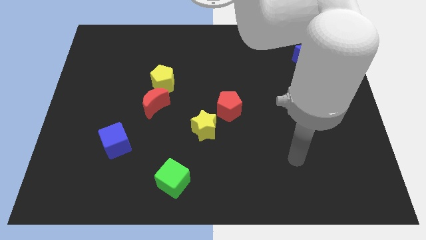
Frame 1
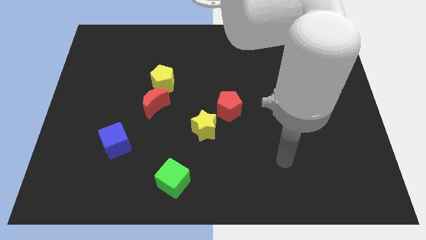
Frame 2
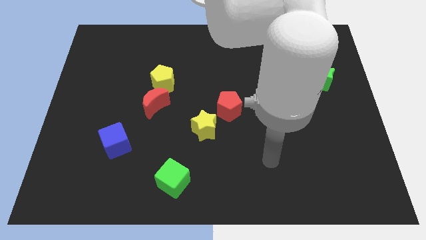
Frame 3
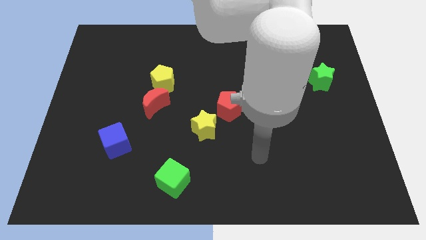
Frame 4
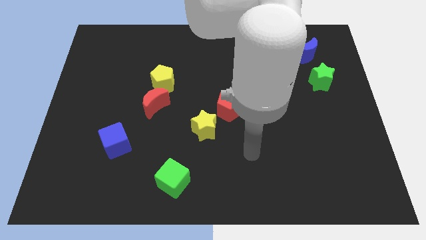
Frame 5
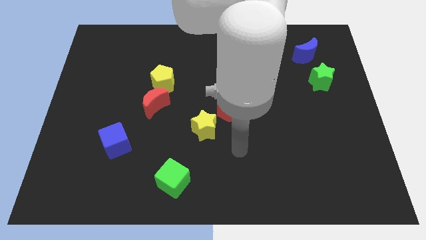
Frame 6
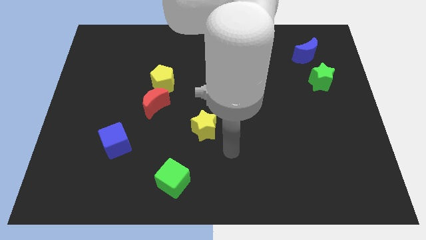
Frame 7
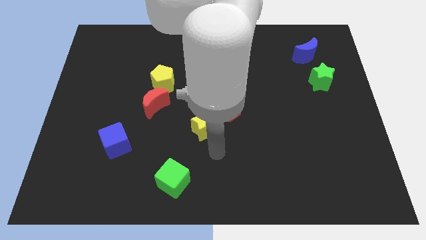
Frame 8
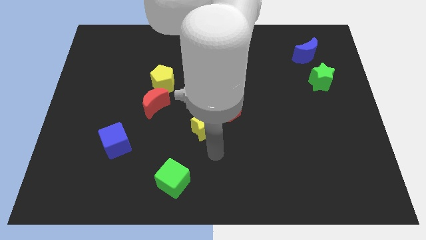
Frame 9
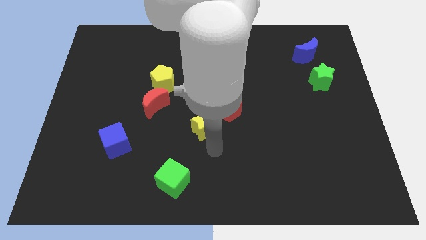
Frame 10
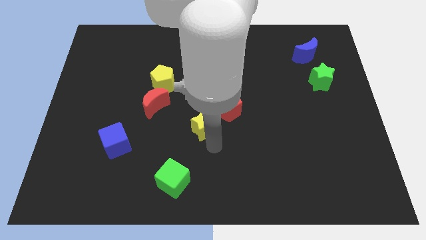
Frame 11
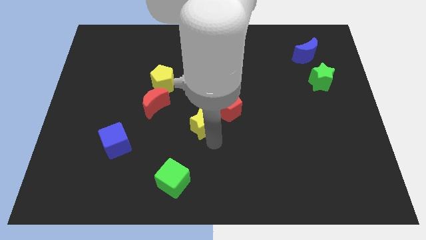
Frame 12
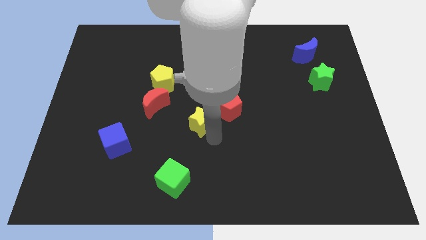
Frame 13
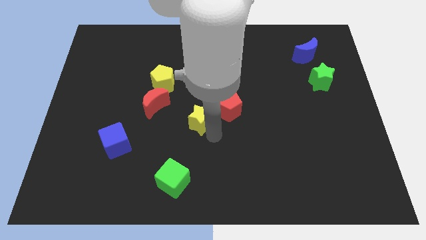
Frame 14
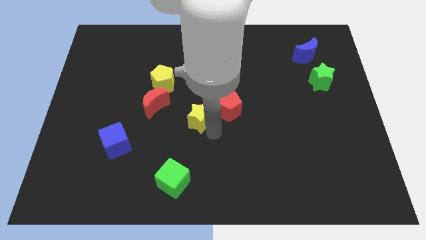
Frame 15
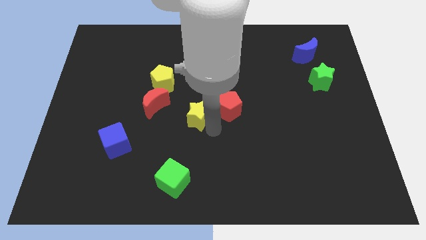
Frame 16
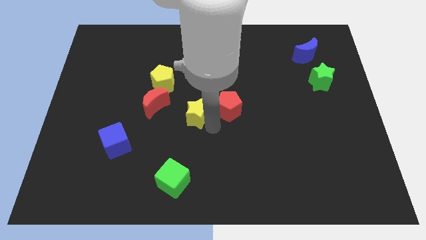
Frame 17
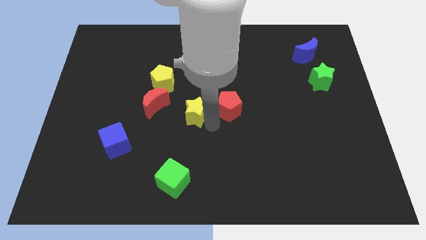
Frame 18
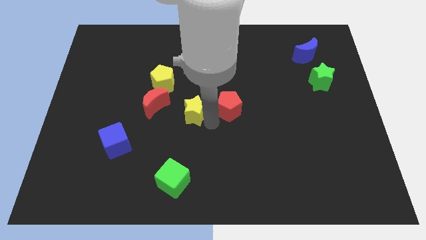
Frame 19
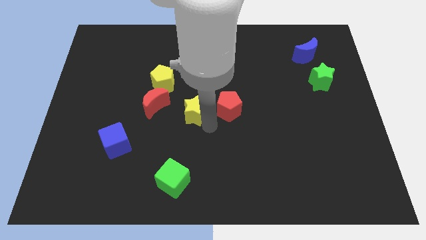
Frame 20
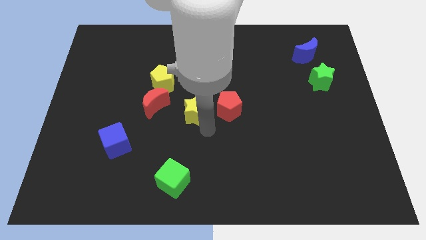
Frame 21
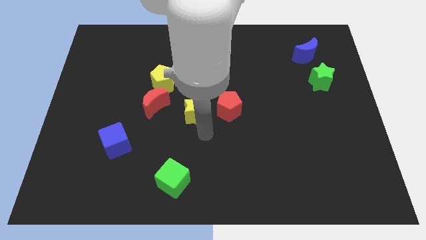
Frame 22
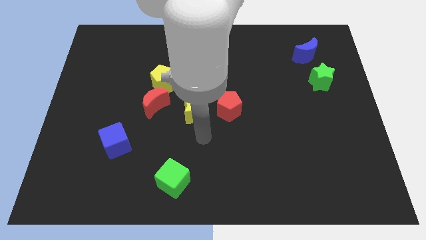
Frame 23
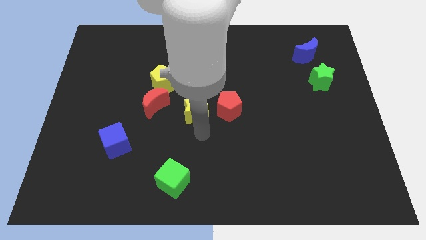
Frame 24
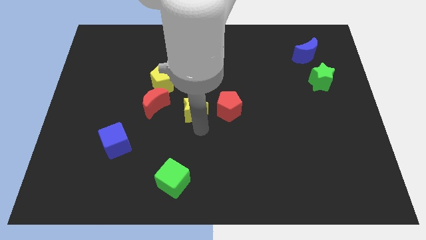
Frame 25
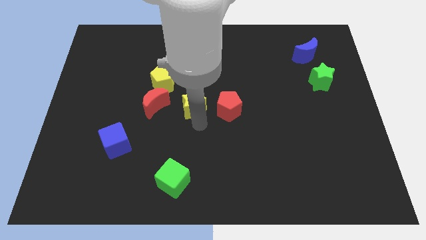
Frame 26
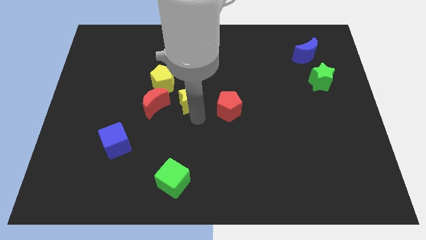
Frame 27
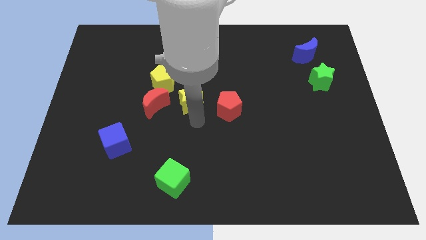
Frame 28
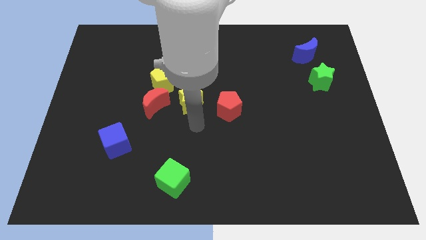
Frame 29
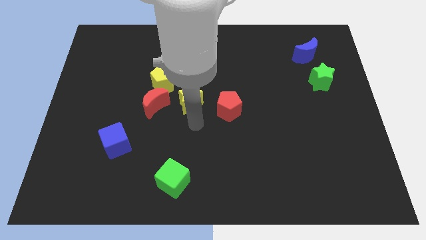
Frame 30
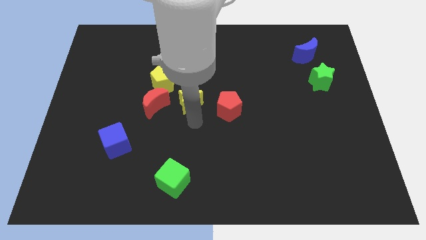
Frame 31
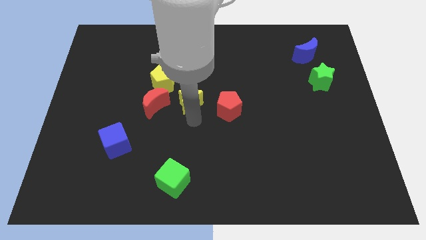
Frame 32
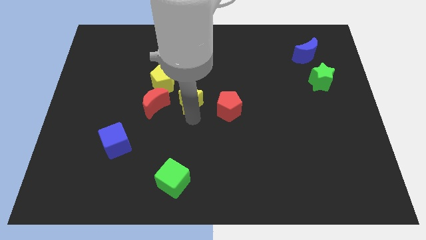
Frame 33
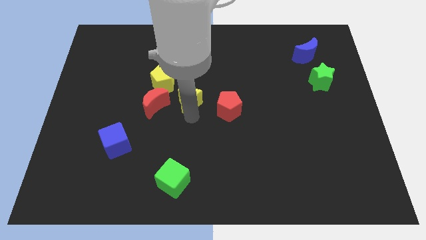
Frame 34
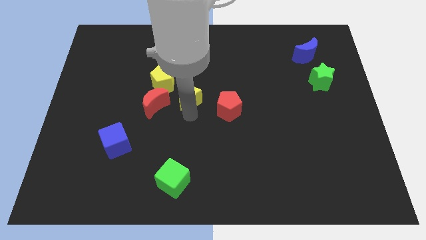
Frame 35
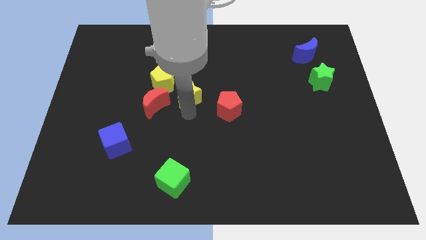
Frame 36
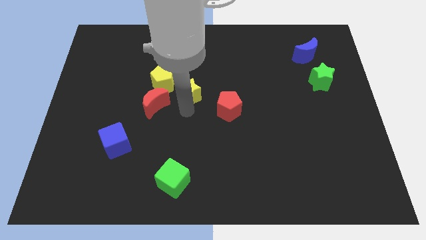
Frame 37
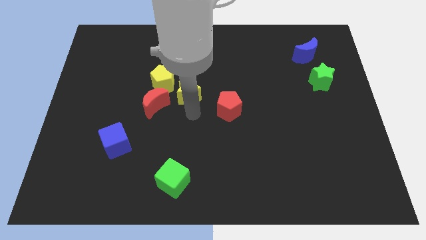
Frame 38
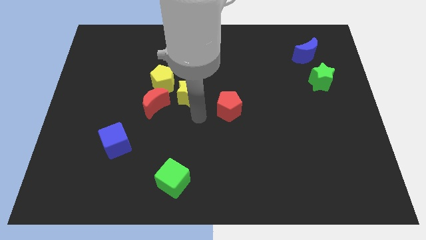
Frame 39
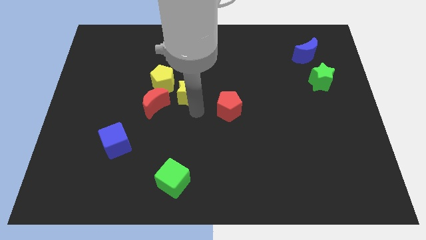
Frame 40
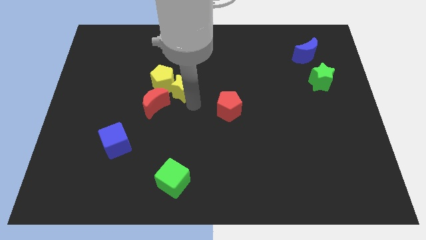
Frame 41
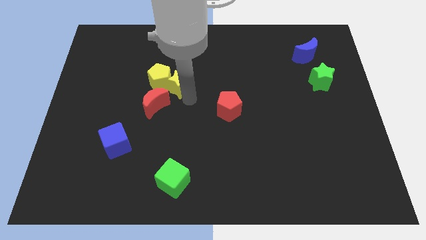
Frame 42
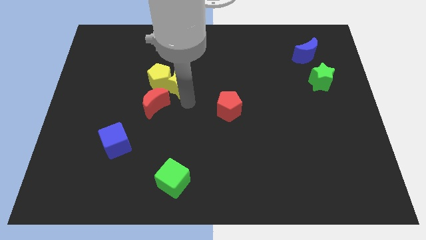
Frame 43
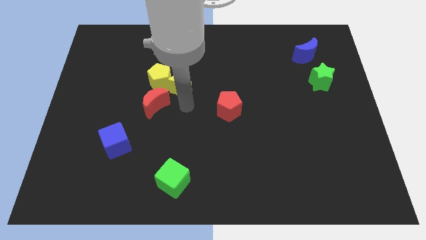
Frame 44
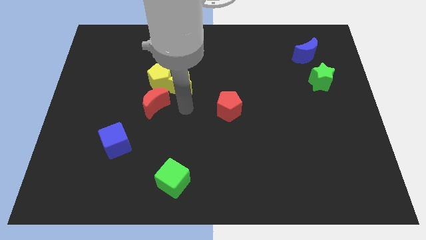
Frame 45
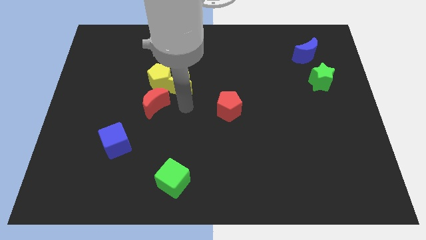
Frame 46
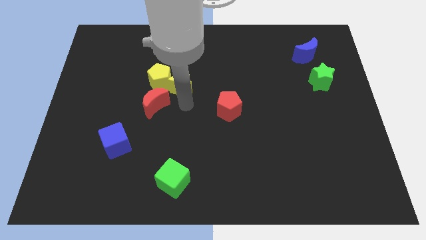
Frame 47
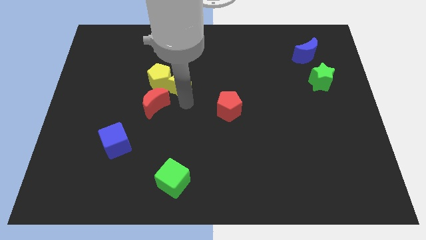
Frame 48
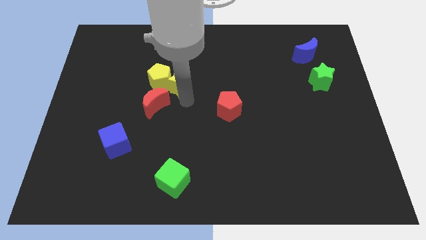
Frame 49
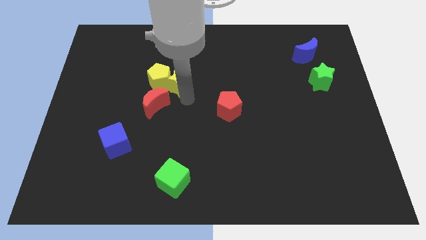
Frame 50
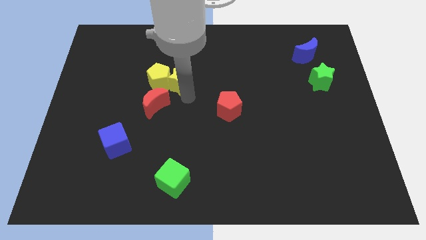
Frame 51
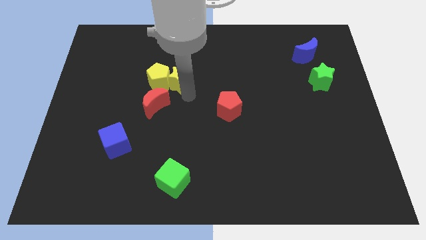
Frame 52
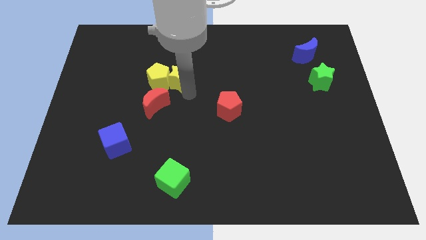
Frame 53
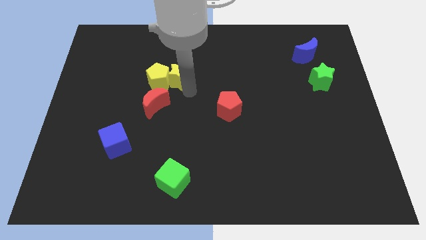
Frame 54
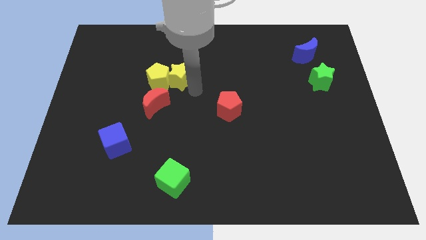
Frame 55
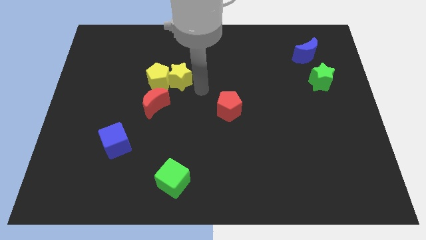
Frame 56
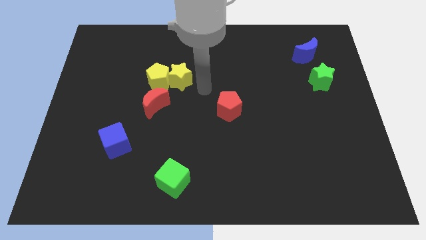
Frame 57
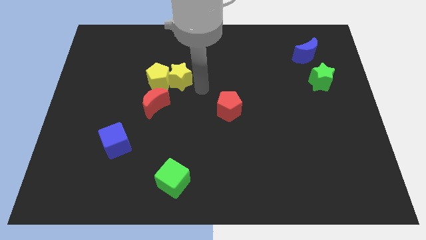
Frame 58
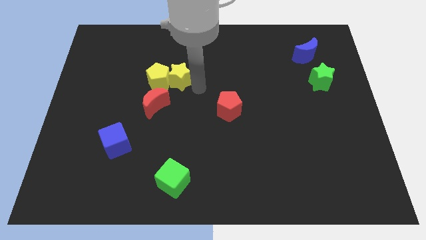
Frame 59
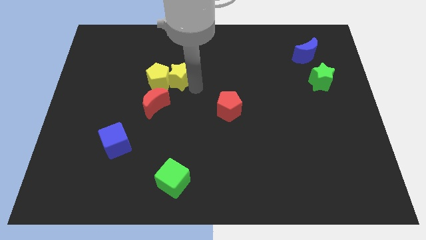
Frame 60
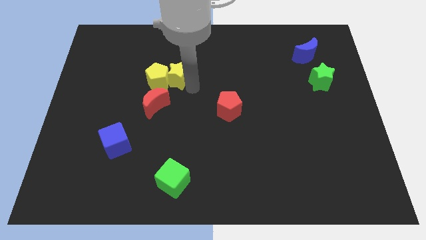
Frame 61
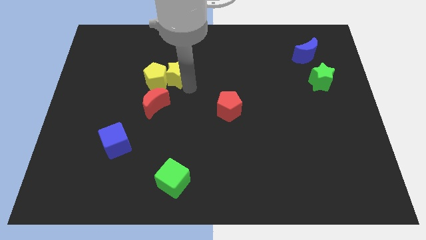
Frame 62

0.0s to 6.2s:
slide the yellow star to the top of the red moon

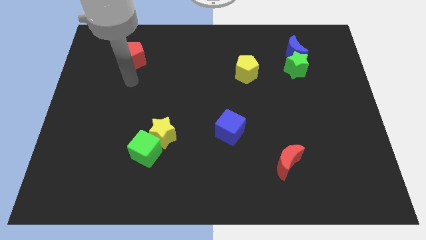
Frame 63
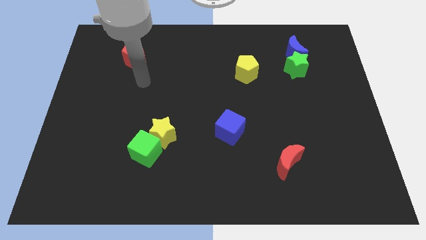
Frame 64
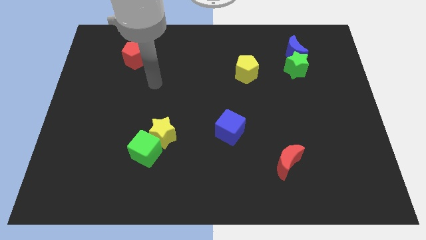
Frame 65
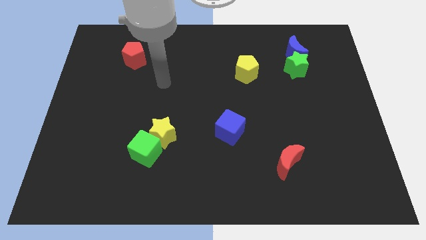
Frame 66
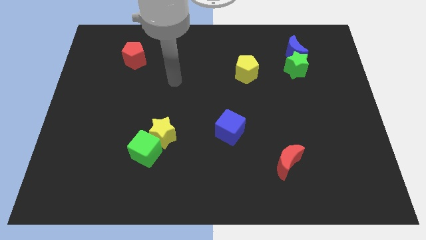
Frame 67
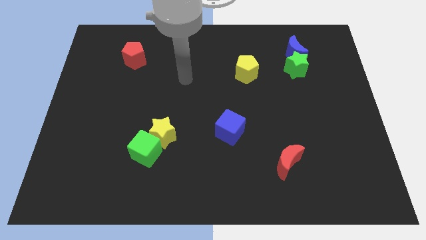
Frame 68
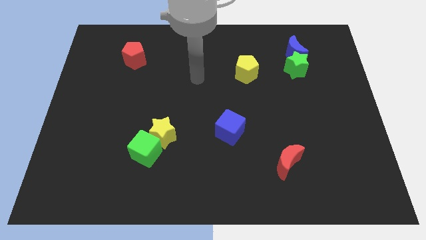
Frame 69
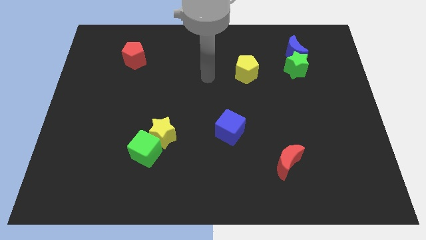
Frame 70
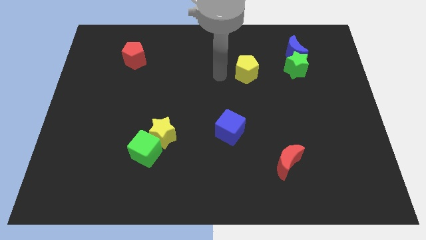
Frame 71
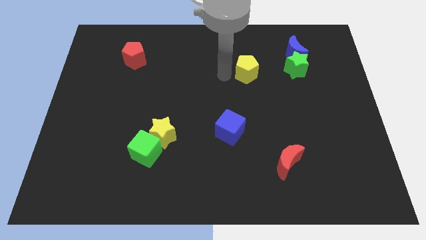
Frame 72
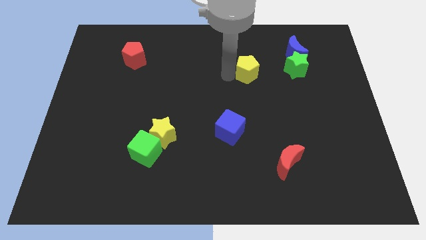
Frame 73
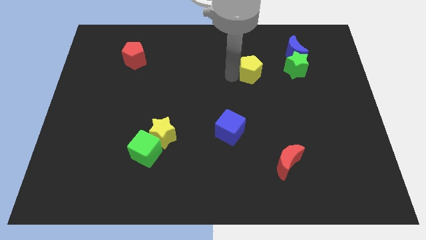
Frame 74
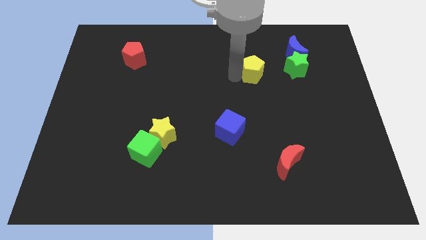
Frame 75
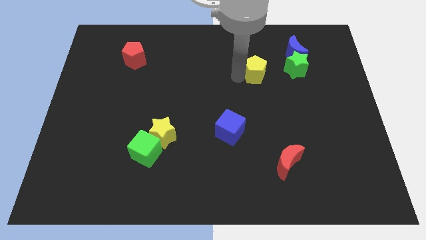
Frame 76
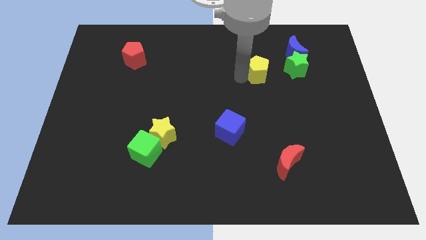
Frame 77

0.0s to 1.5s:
move the yellow pentagon to the bottom left side of the blue moon
